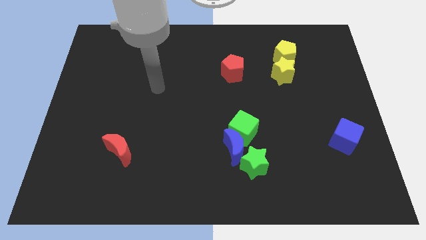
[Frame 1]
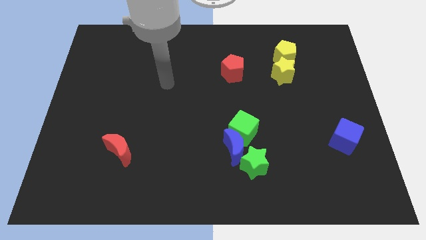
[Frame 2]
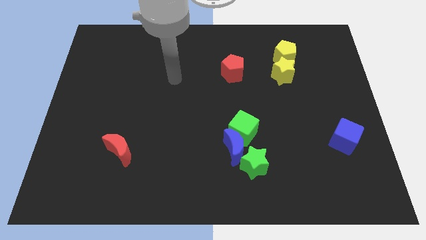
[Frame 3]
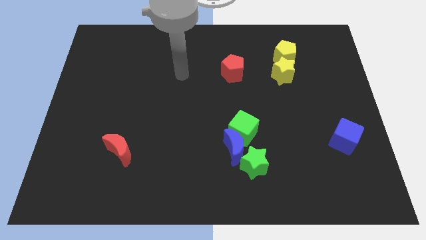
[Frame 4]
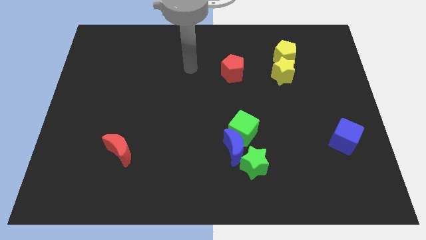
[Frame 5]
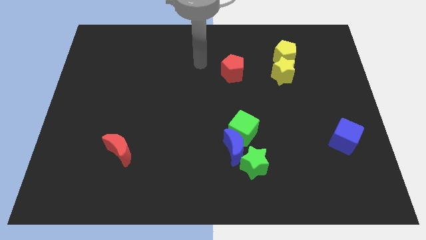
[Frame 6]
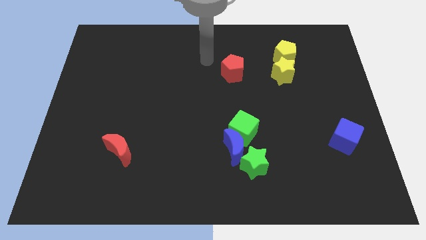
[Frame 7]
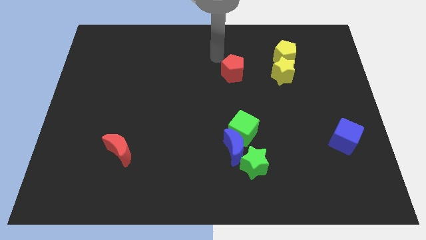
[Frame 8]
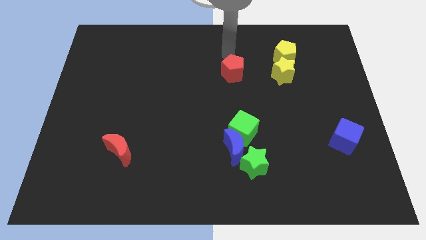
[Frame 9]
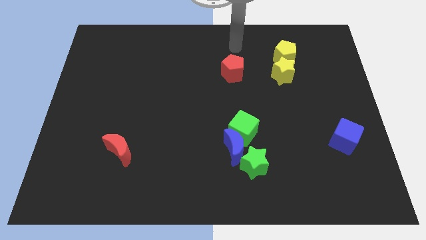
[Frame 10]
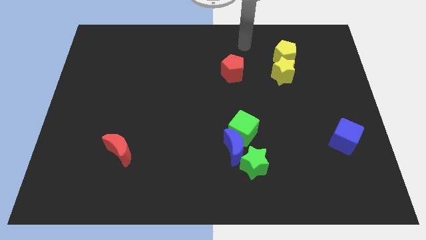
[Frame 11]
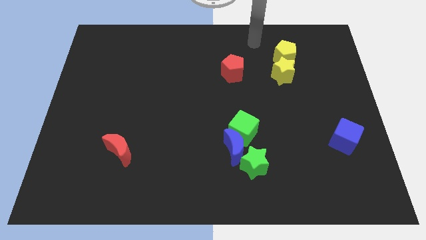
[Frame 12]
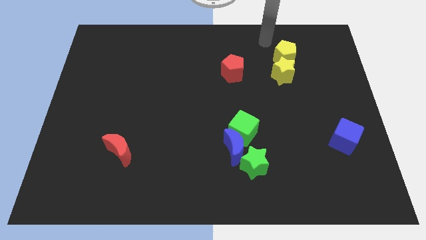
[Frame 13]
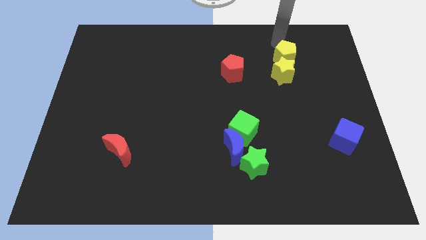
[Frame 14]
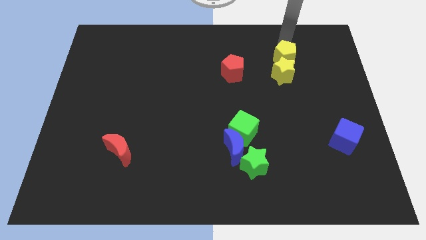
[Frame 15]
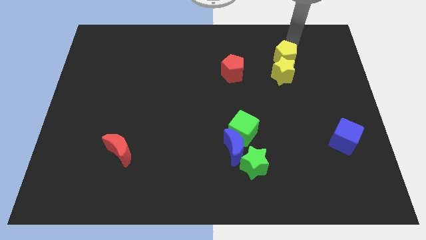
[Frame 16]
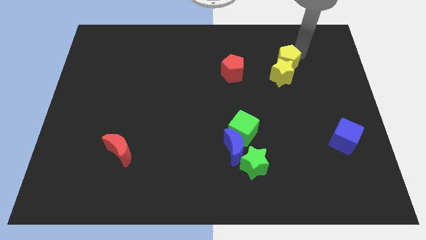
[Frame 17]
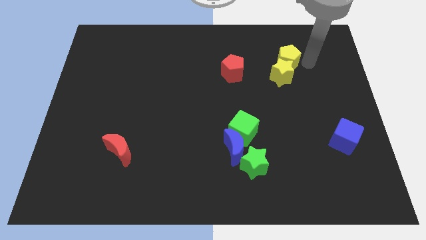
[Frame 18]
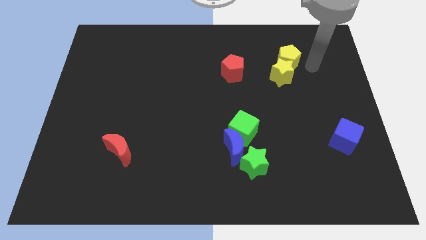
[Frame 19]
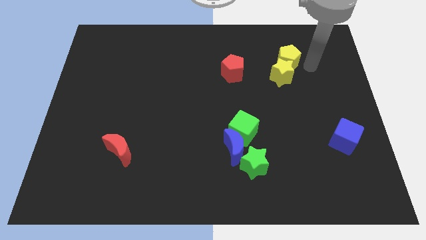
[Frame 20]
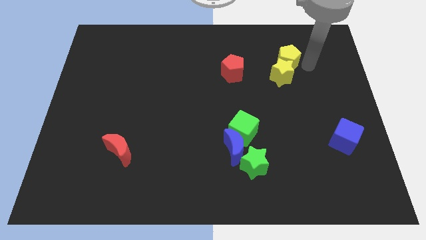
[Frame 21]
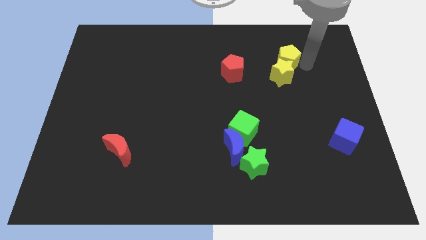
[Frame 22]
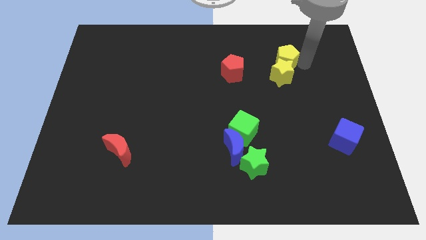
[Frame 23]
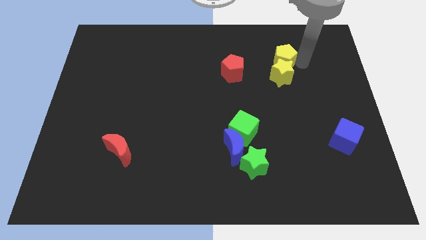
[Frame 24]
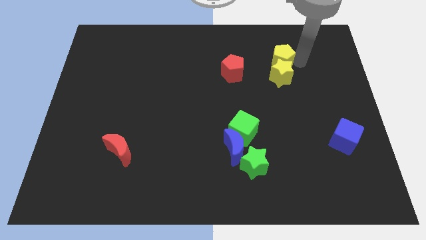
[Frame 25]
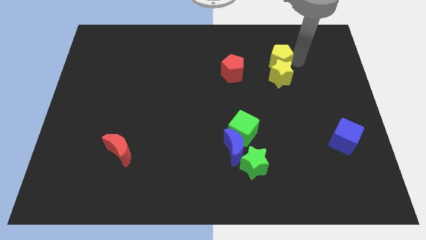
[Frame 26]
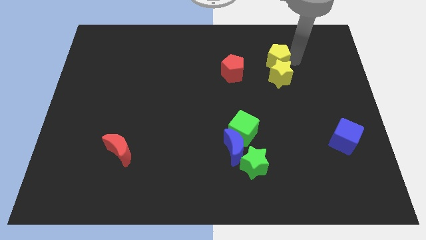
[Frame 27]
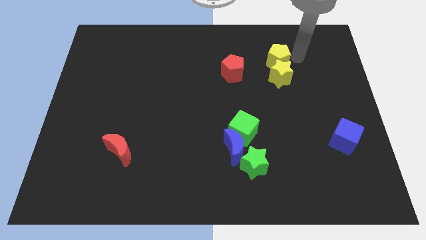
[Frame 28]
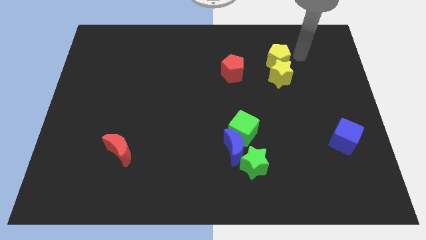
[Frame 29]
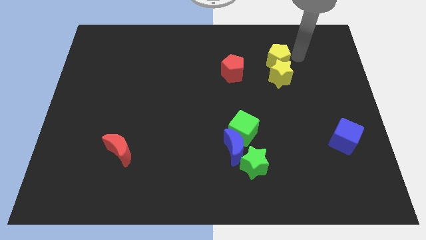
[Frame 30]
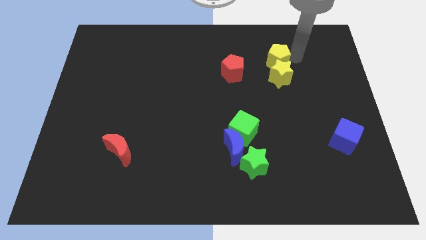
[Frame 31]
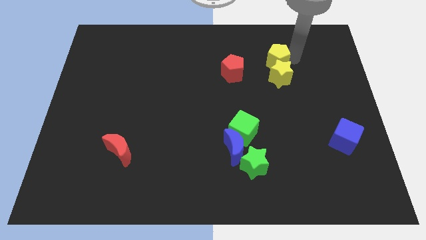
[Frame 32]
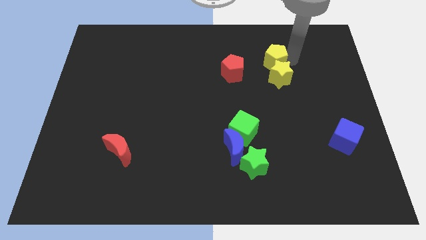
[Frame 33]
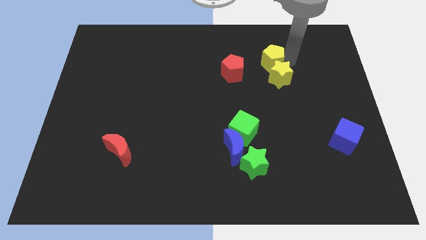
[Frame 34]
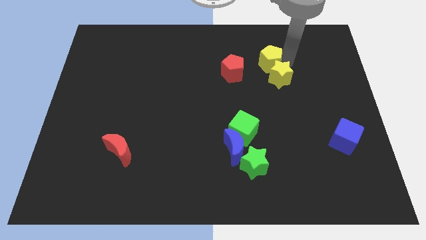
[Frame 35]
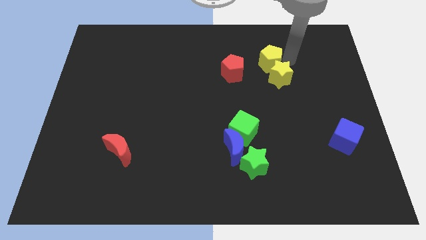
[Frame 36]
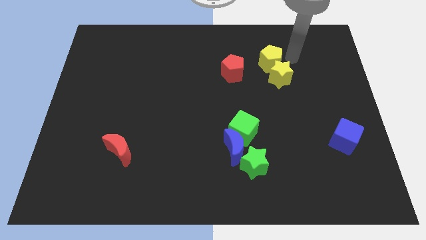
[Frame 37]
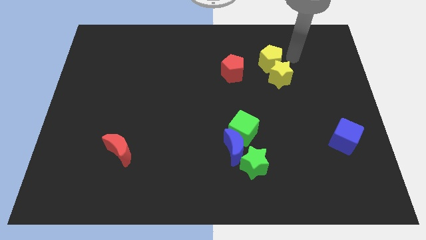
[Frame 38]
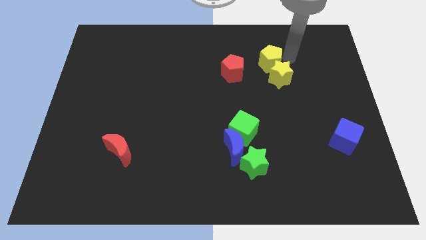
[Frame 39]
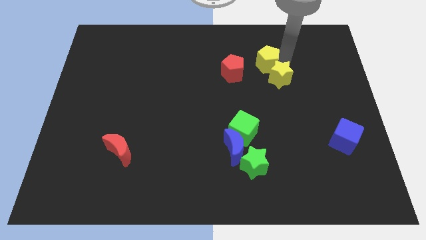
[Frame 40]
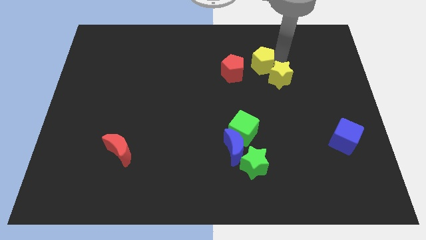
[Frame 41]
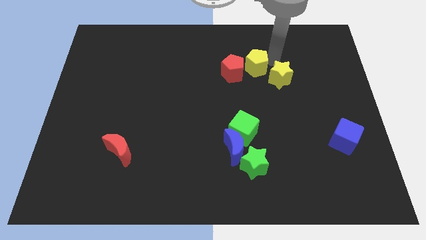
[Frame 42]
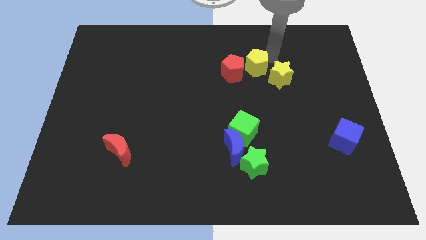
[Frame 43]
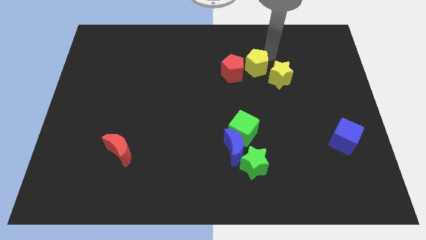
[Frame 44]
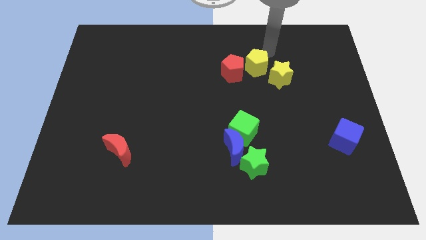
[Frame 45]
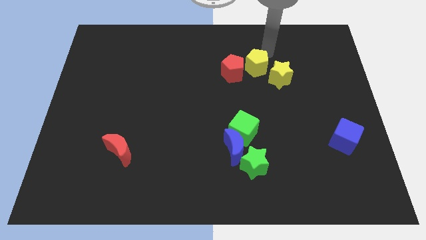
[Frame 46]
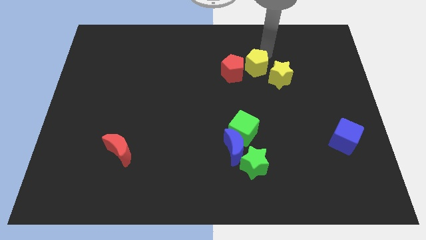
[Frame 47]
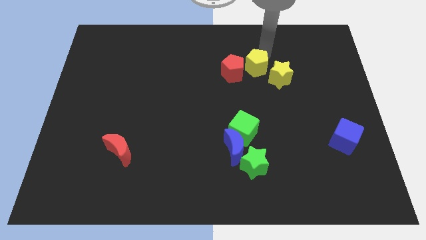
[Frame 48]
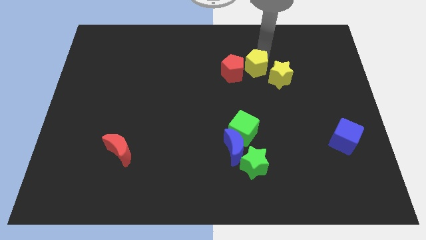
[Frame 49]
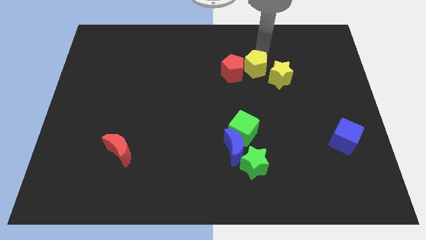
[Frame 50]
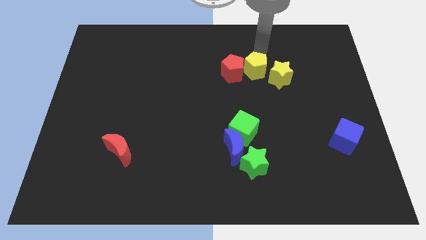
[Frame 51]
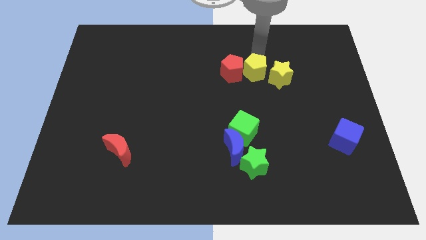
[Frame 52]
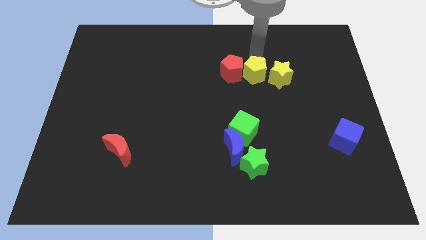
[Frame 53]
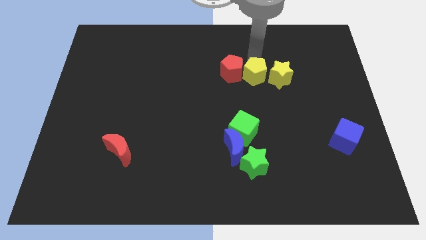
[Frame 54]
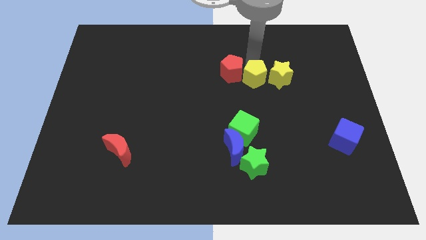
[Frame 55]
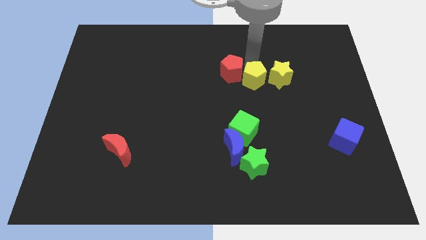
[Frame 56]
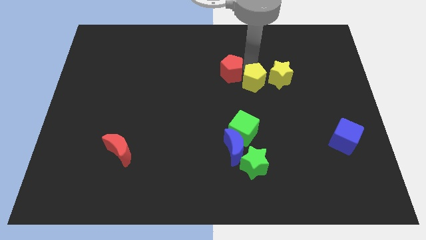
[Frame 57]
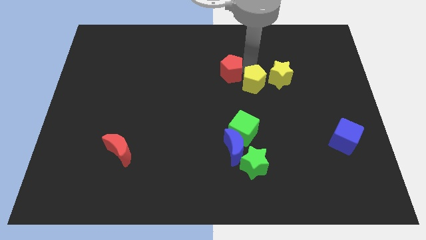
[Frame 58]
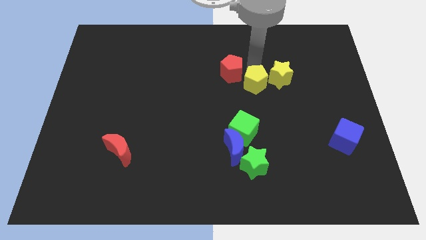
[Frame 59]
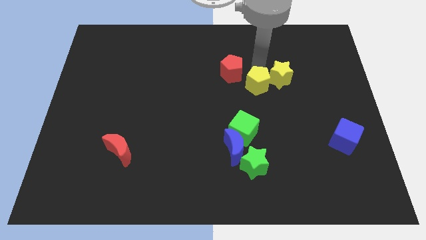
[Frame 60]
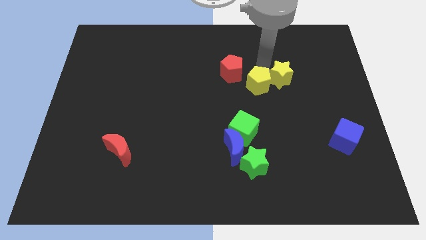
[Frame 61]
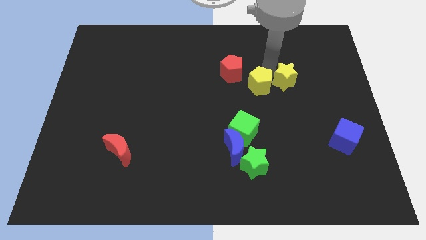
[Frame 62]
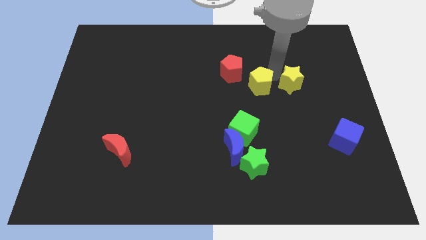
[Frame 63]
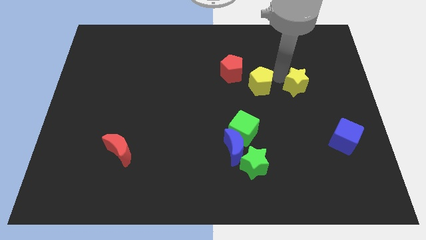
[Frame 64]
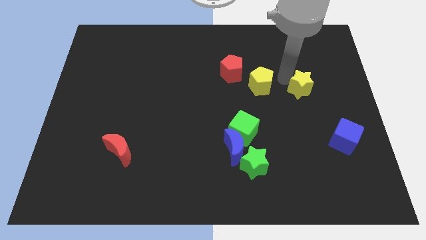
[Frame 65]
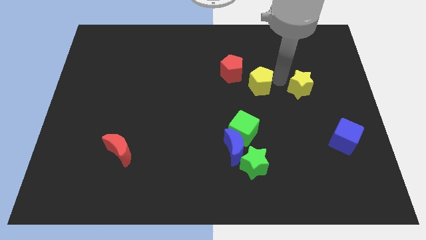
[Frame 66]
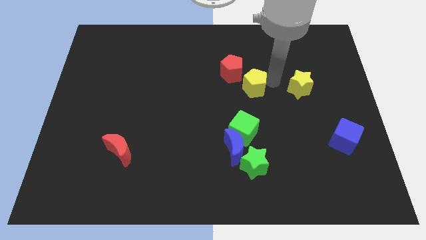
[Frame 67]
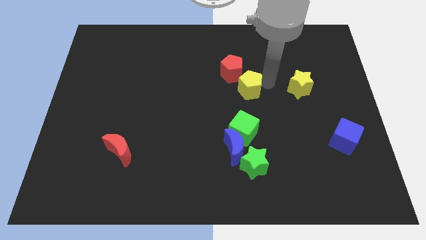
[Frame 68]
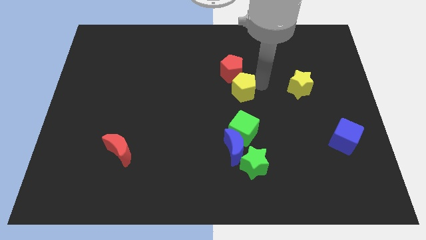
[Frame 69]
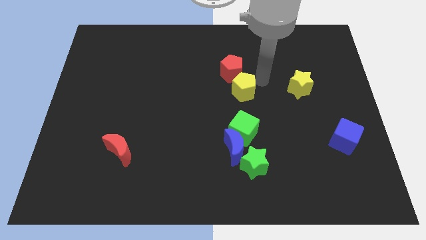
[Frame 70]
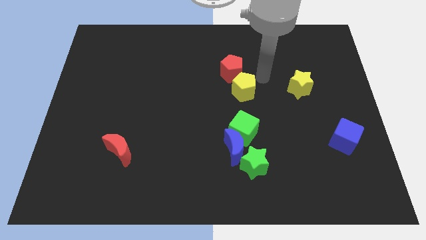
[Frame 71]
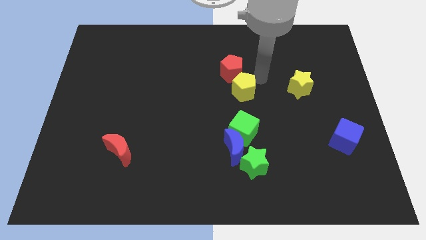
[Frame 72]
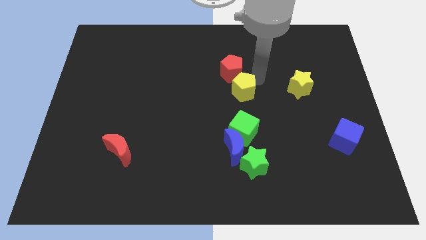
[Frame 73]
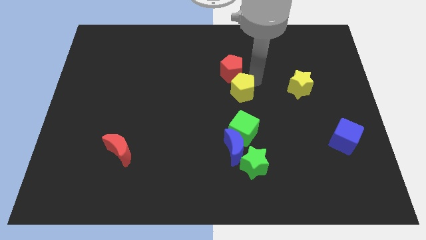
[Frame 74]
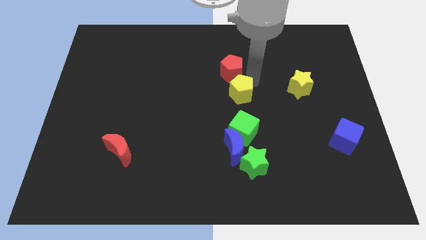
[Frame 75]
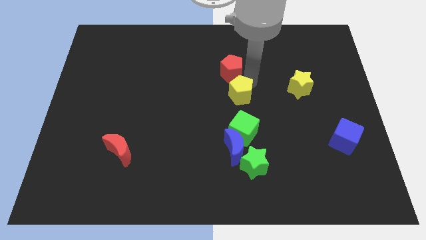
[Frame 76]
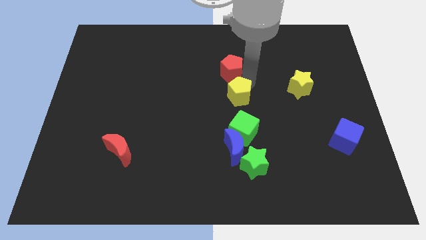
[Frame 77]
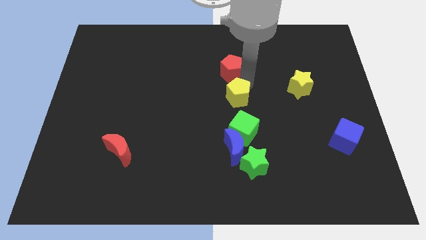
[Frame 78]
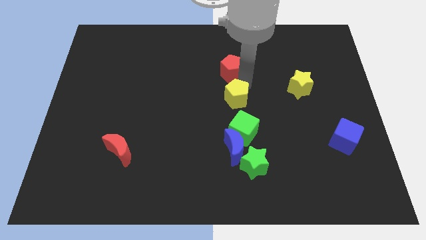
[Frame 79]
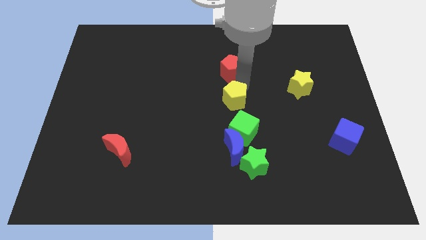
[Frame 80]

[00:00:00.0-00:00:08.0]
move the yellow pentagon downwards and then left
